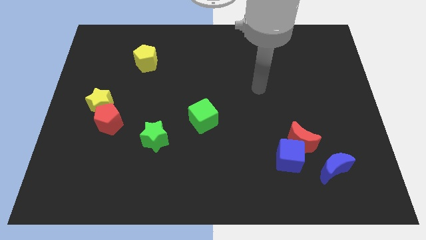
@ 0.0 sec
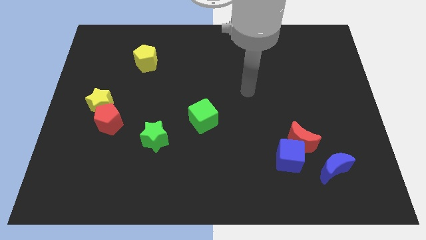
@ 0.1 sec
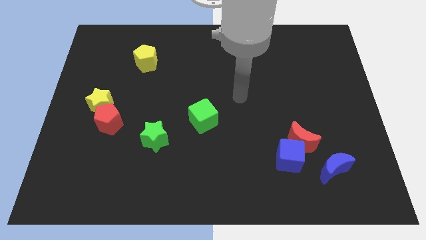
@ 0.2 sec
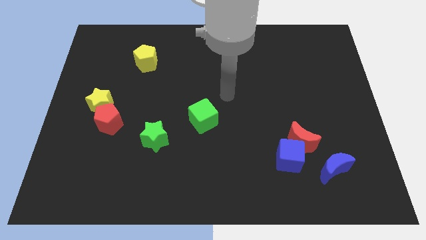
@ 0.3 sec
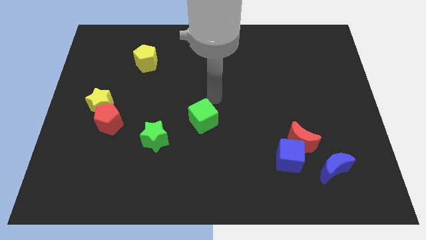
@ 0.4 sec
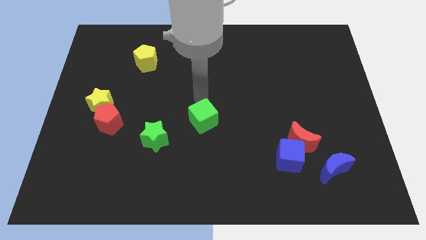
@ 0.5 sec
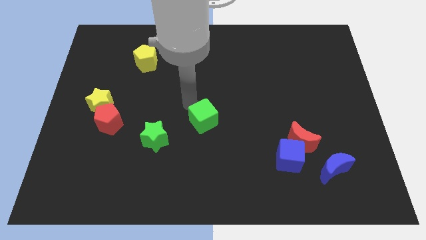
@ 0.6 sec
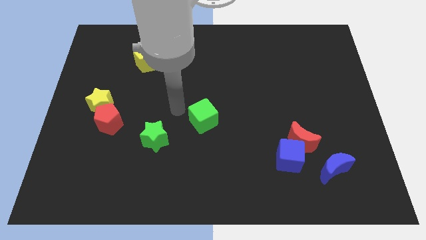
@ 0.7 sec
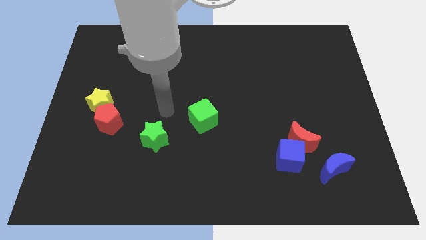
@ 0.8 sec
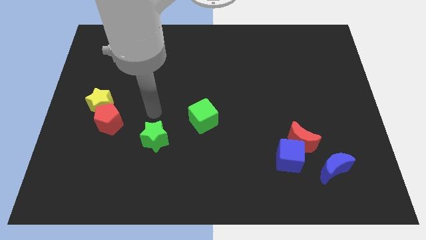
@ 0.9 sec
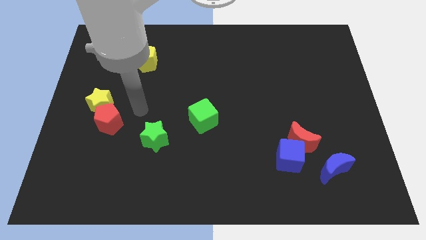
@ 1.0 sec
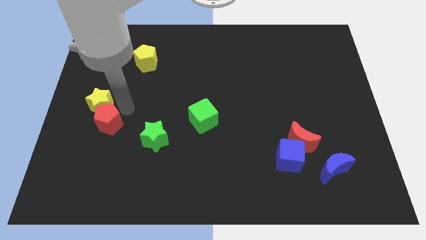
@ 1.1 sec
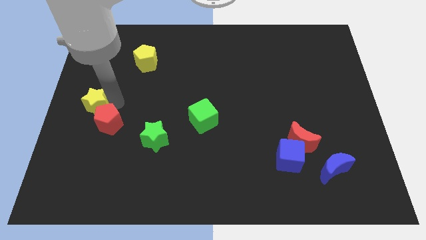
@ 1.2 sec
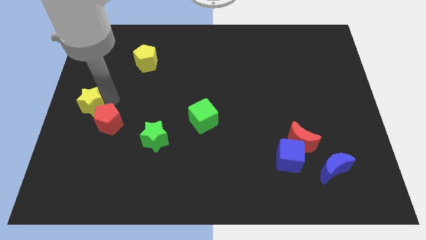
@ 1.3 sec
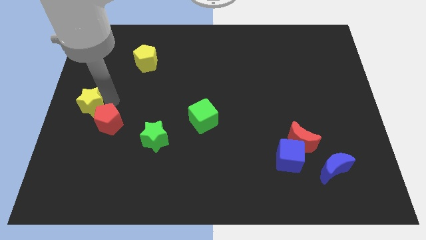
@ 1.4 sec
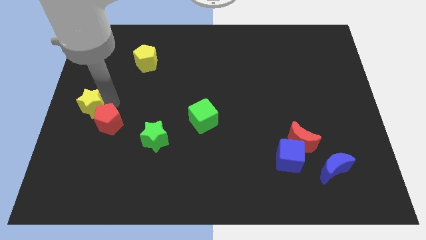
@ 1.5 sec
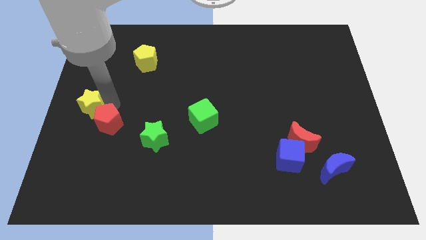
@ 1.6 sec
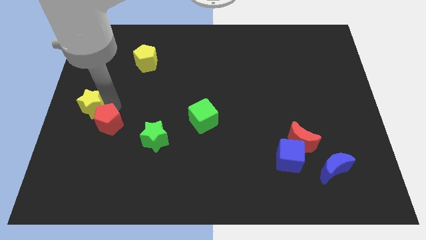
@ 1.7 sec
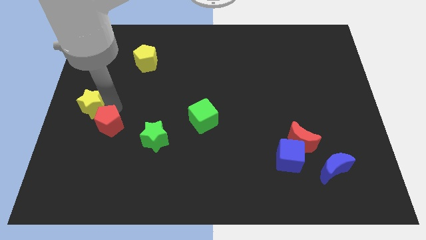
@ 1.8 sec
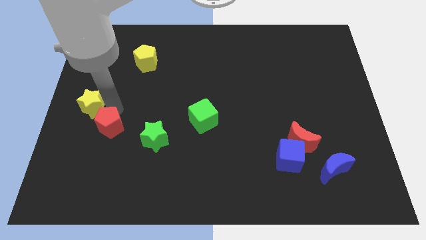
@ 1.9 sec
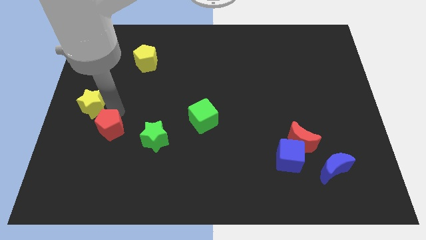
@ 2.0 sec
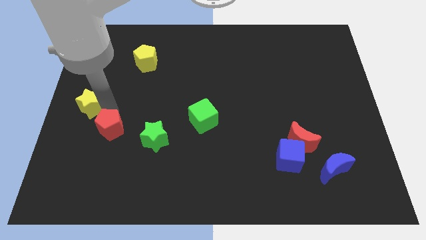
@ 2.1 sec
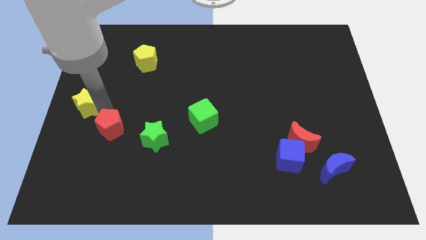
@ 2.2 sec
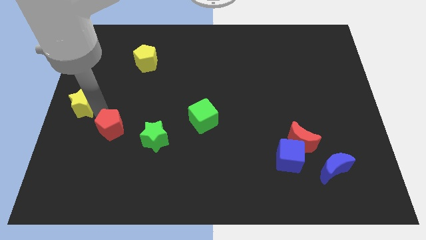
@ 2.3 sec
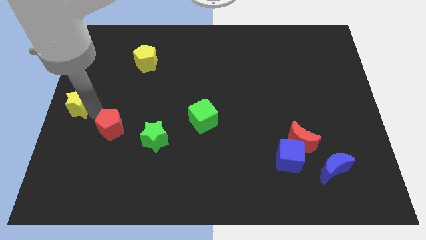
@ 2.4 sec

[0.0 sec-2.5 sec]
separate the red pentagon from the yellow star

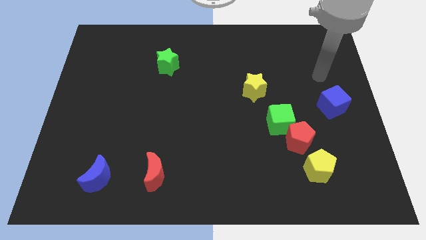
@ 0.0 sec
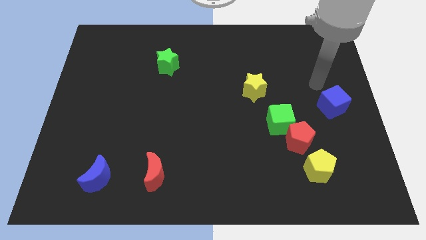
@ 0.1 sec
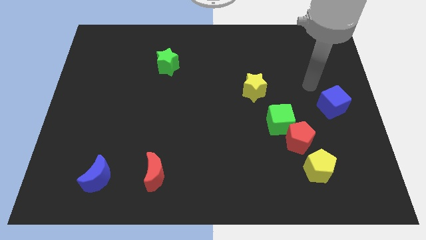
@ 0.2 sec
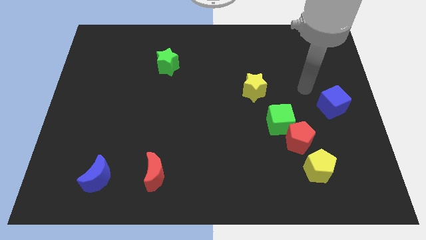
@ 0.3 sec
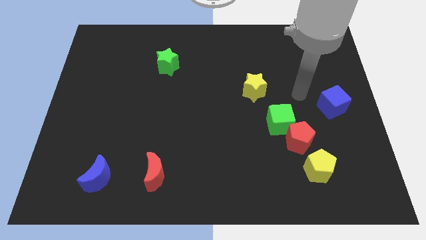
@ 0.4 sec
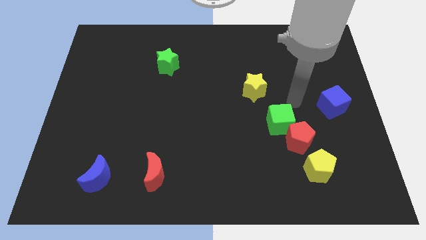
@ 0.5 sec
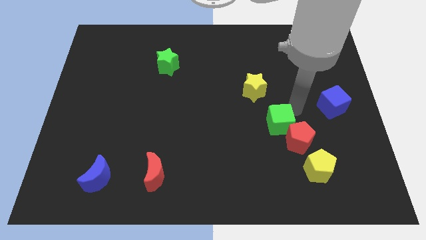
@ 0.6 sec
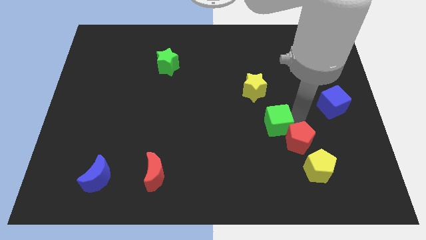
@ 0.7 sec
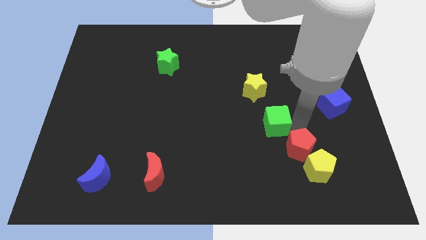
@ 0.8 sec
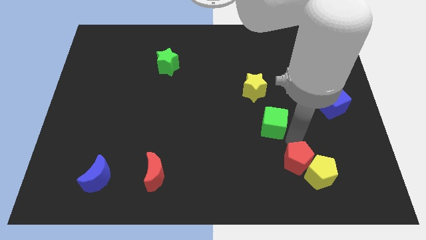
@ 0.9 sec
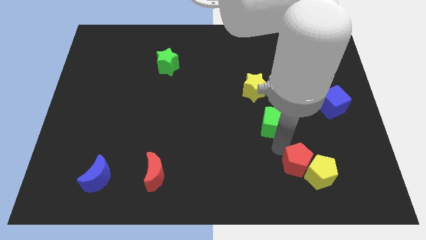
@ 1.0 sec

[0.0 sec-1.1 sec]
separate the green cube from the red pentagon

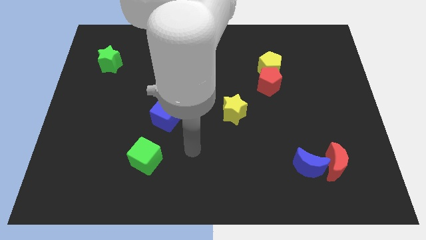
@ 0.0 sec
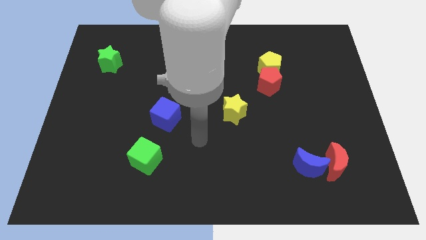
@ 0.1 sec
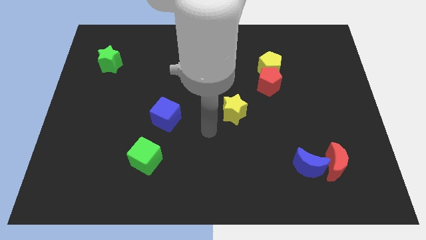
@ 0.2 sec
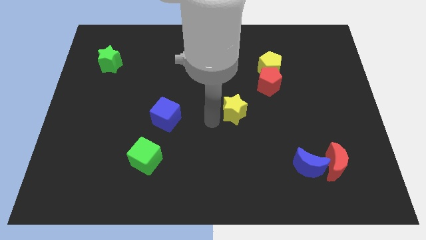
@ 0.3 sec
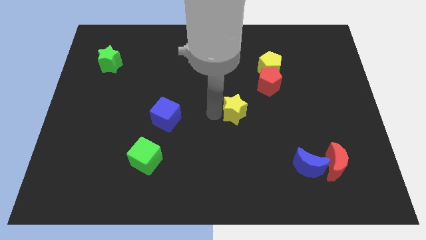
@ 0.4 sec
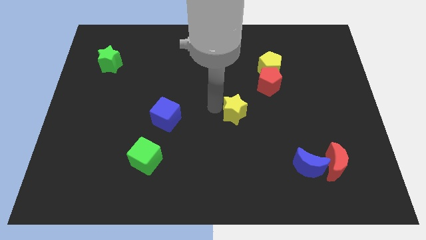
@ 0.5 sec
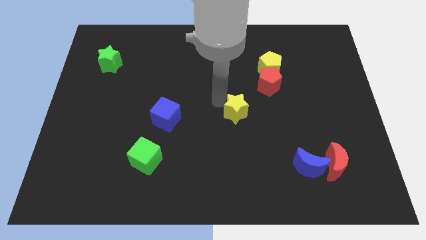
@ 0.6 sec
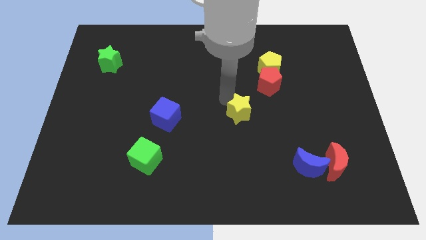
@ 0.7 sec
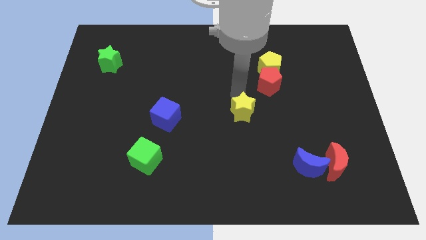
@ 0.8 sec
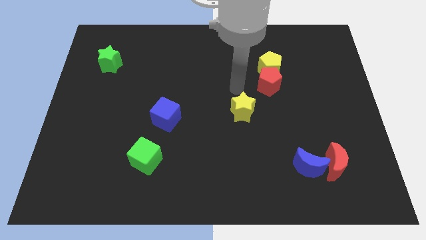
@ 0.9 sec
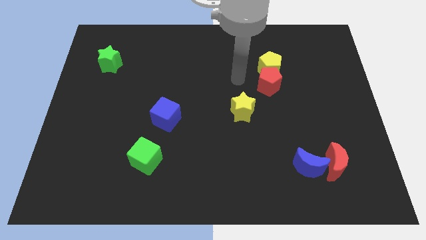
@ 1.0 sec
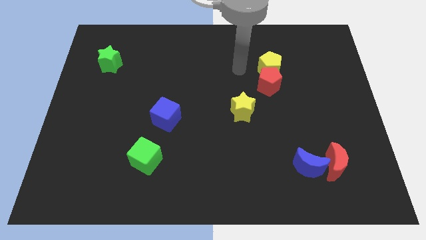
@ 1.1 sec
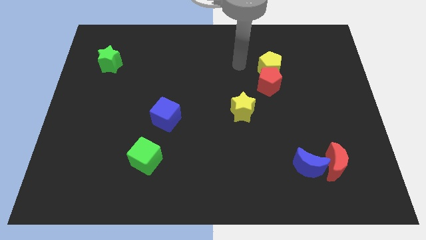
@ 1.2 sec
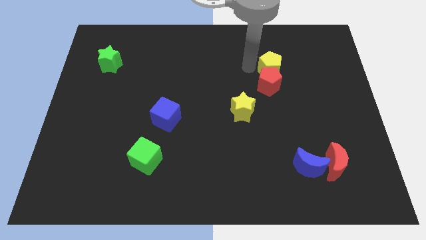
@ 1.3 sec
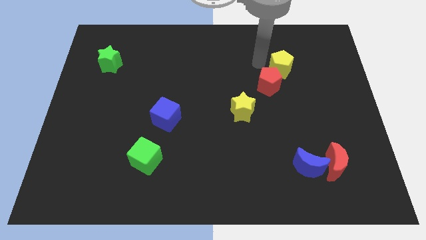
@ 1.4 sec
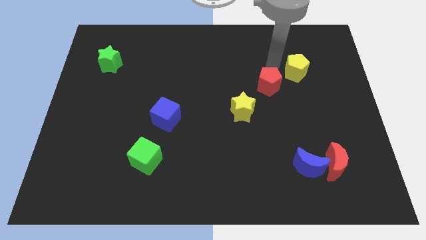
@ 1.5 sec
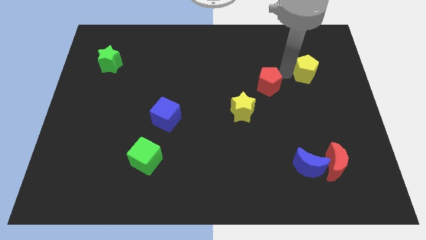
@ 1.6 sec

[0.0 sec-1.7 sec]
separate the red pentagon from the yellow pentagon

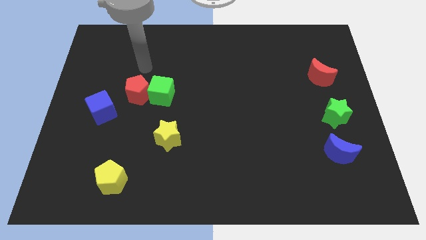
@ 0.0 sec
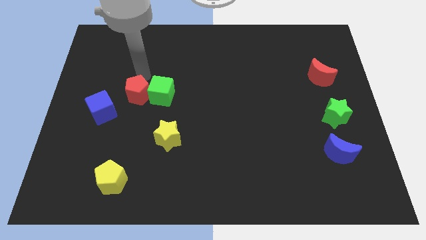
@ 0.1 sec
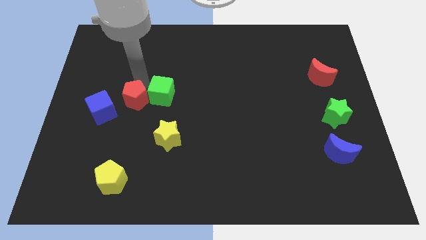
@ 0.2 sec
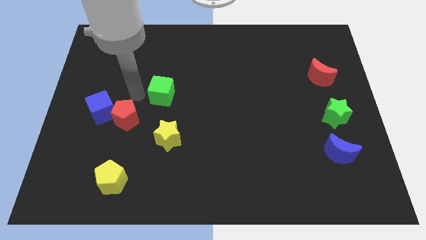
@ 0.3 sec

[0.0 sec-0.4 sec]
move the green cube away from the red pentagon

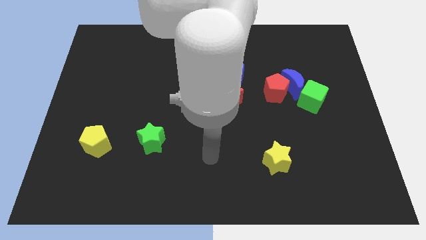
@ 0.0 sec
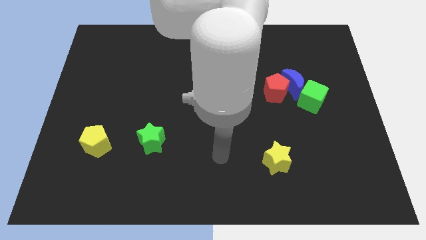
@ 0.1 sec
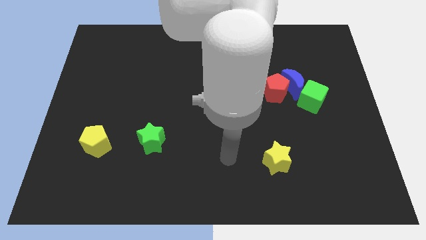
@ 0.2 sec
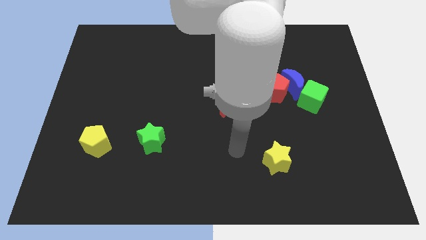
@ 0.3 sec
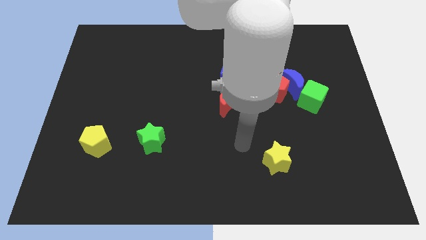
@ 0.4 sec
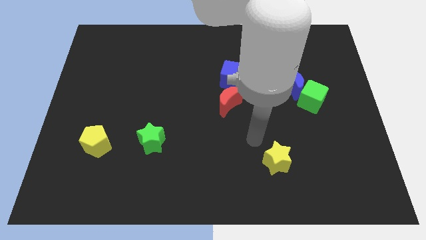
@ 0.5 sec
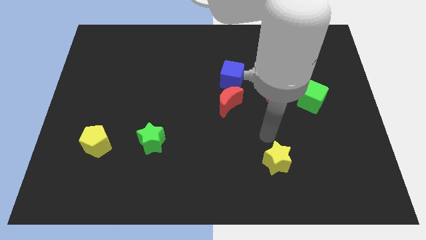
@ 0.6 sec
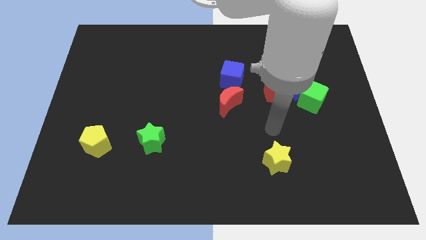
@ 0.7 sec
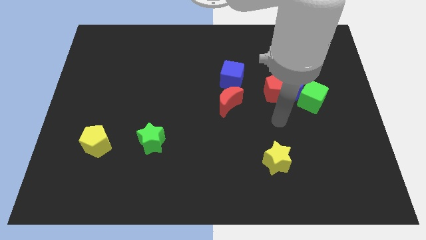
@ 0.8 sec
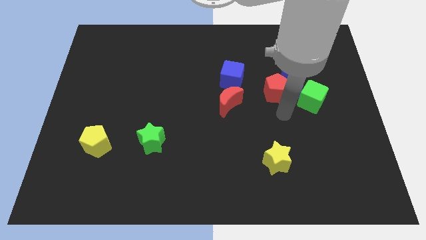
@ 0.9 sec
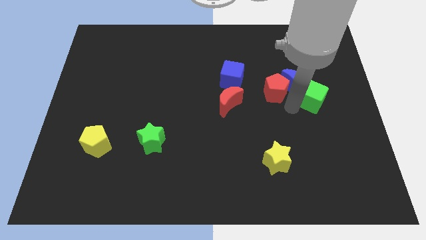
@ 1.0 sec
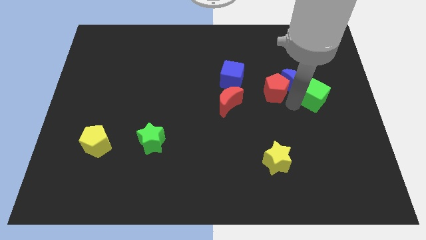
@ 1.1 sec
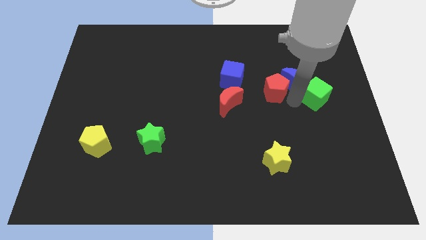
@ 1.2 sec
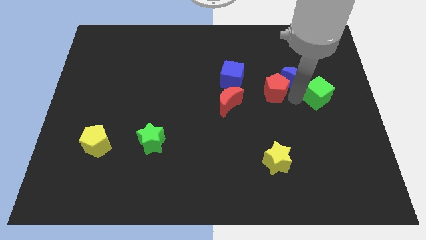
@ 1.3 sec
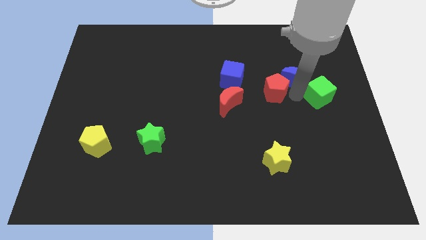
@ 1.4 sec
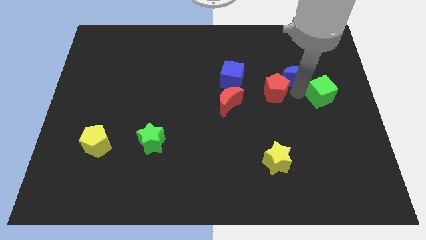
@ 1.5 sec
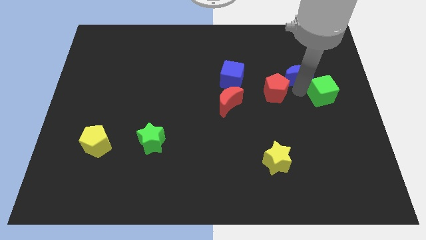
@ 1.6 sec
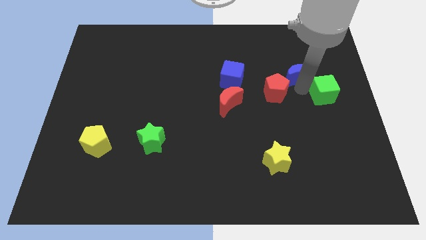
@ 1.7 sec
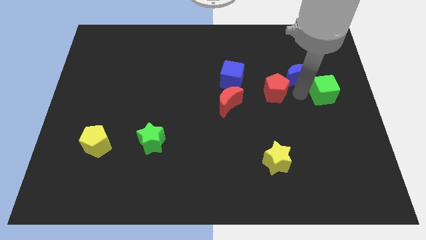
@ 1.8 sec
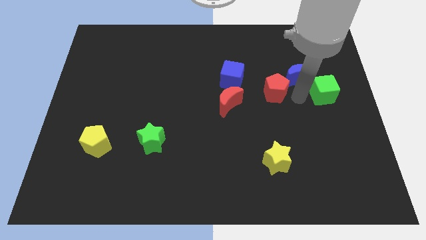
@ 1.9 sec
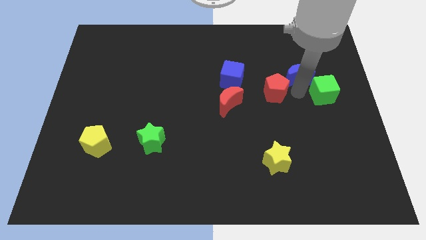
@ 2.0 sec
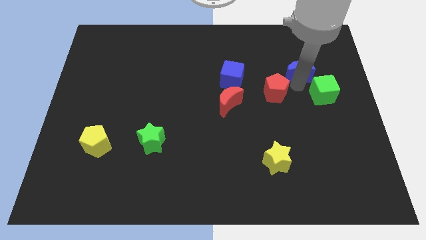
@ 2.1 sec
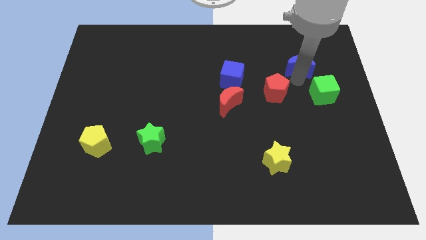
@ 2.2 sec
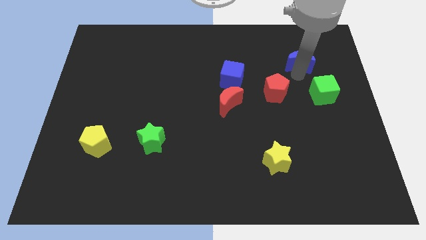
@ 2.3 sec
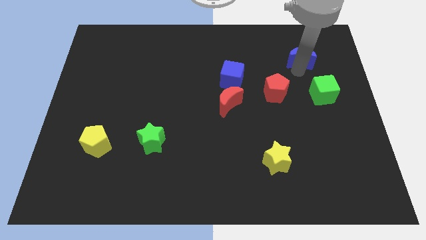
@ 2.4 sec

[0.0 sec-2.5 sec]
separate the blue moon from the red pentagon and green cube

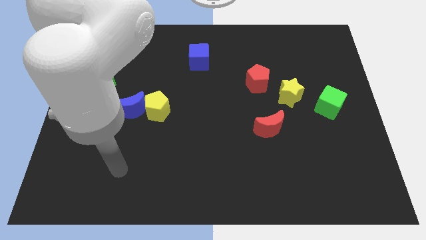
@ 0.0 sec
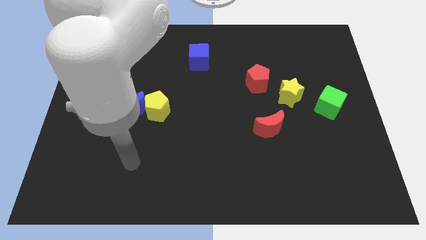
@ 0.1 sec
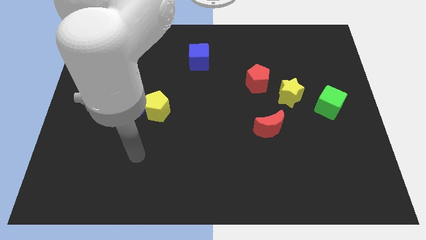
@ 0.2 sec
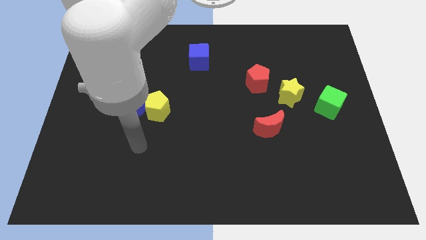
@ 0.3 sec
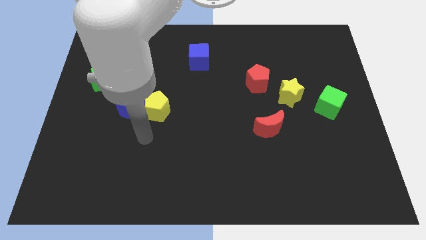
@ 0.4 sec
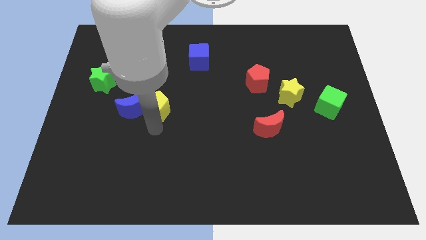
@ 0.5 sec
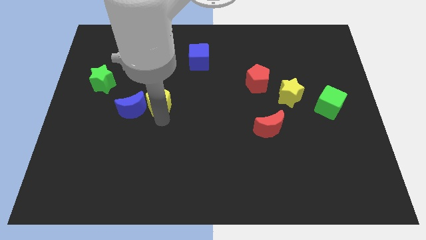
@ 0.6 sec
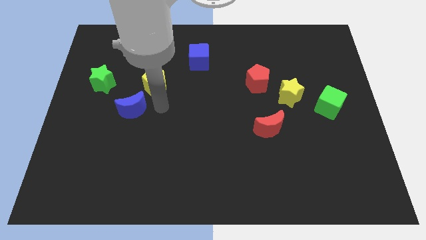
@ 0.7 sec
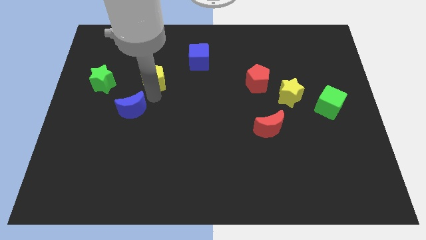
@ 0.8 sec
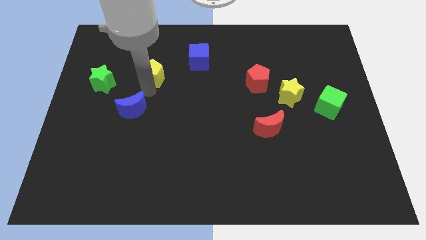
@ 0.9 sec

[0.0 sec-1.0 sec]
move the blue moon away from the yellow pentagon

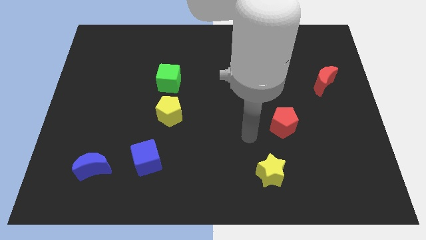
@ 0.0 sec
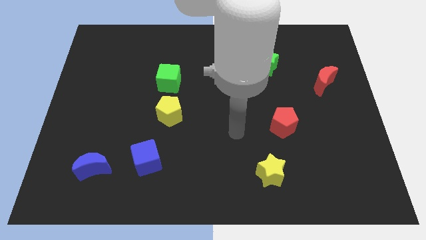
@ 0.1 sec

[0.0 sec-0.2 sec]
separate the green cube from the yellow pentagon
